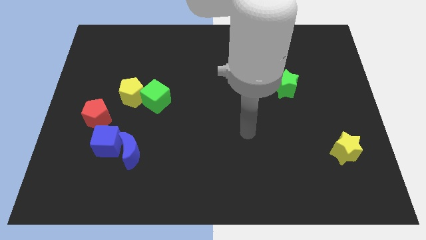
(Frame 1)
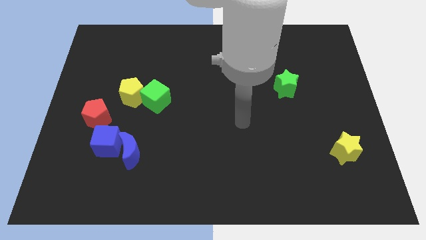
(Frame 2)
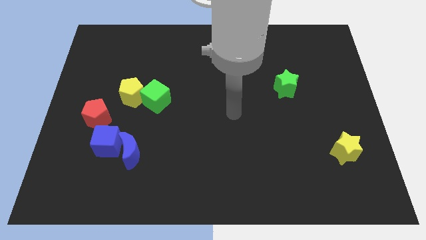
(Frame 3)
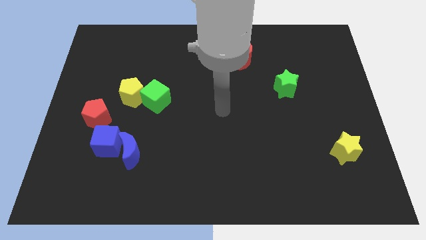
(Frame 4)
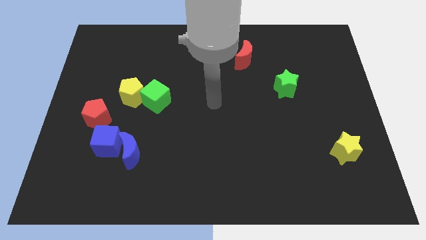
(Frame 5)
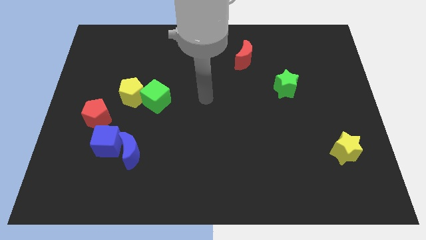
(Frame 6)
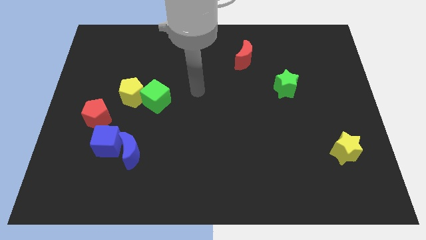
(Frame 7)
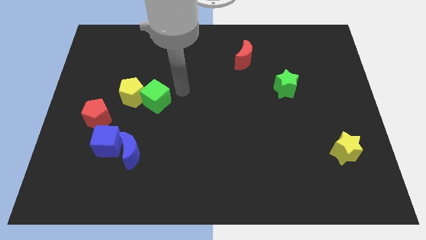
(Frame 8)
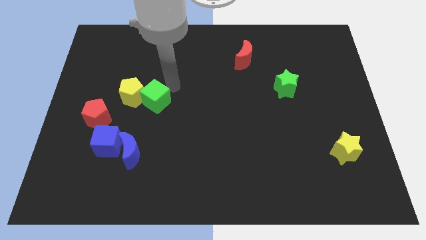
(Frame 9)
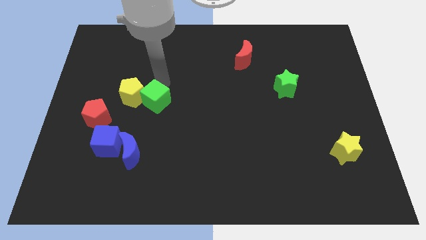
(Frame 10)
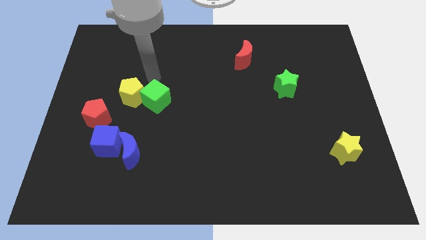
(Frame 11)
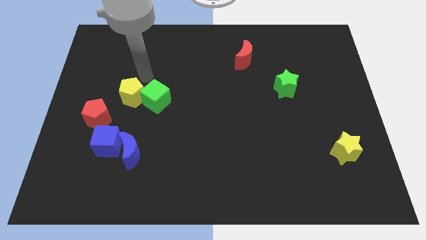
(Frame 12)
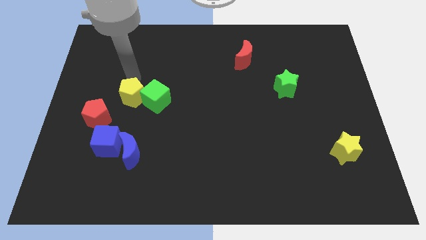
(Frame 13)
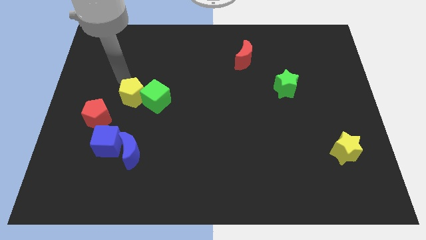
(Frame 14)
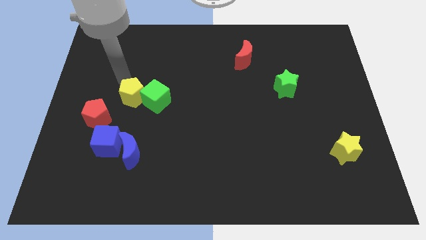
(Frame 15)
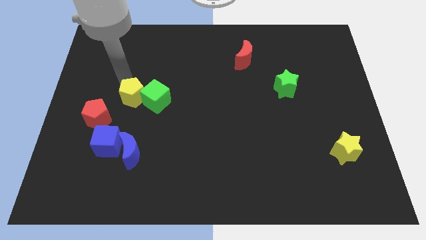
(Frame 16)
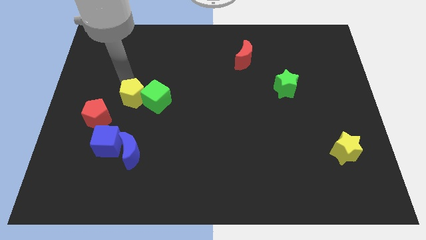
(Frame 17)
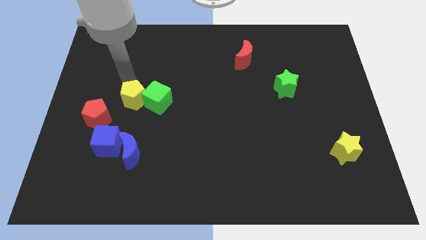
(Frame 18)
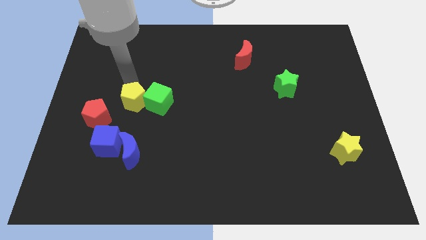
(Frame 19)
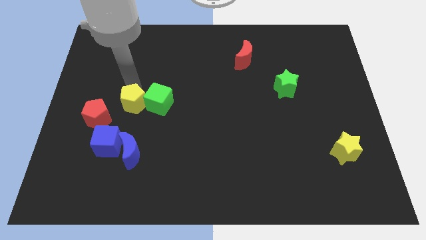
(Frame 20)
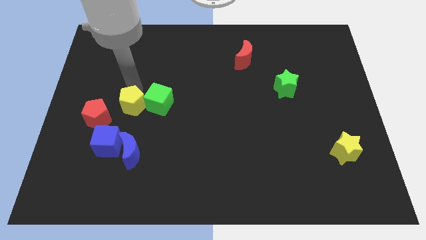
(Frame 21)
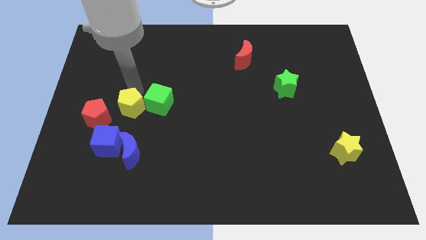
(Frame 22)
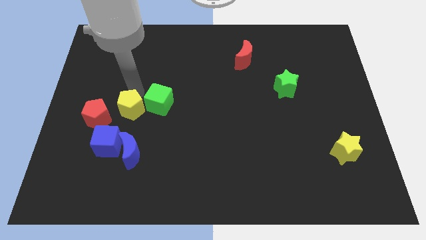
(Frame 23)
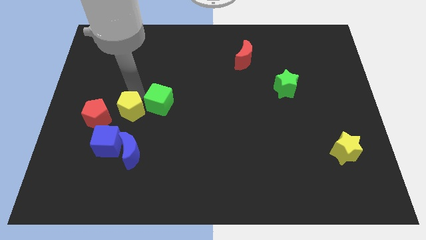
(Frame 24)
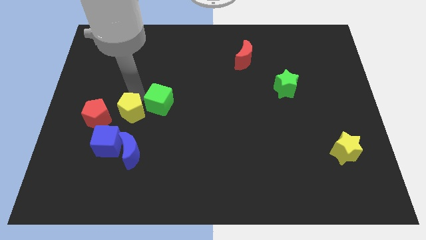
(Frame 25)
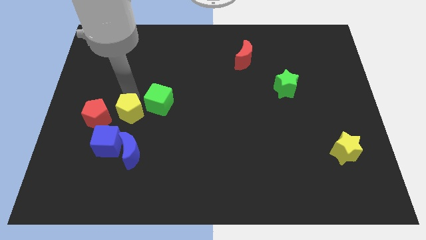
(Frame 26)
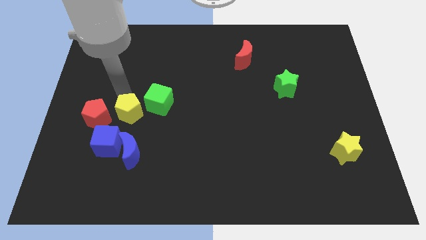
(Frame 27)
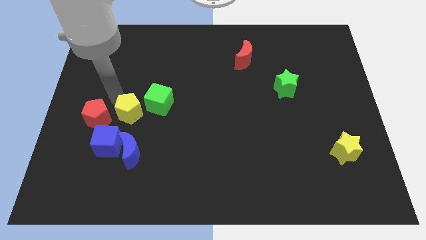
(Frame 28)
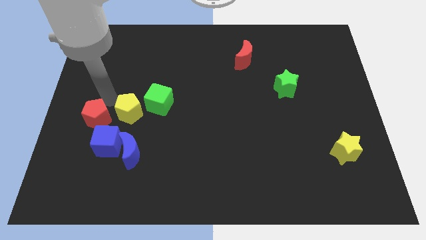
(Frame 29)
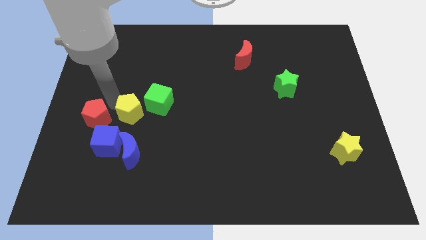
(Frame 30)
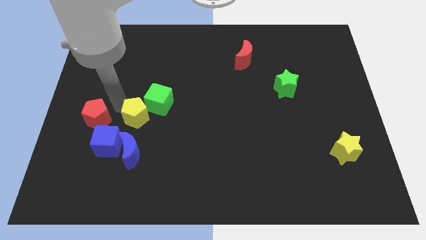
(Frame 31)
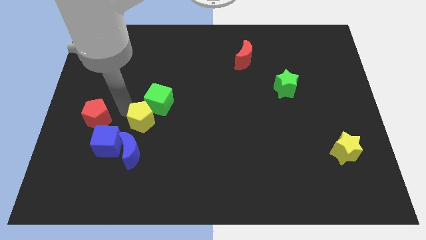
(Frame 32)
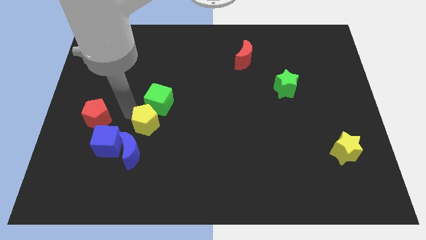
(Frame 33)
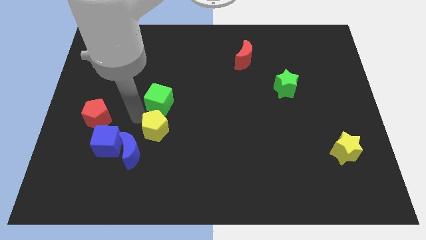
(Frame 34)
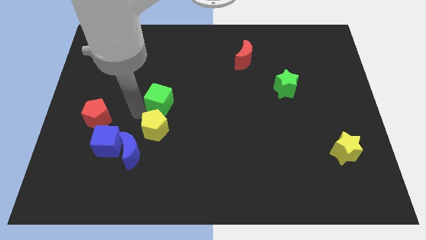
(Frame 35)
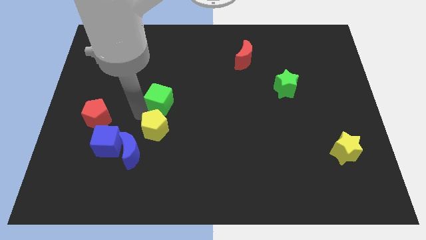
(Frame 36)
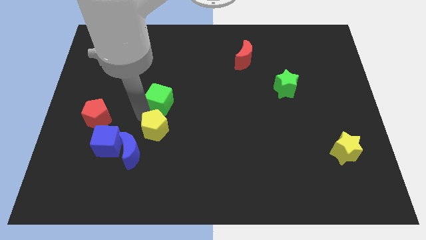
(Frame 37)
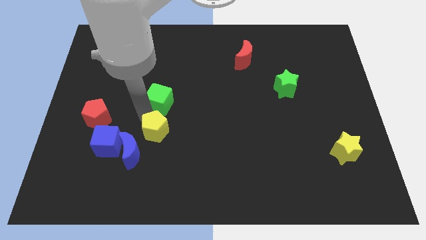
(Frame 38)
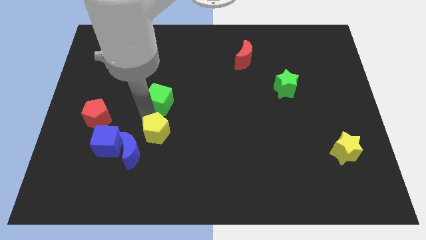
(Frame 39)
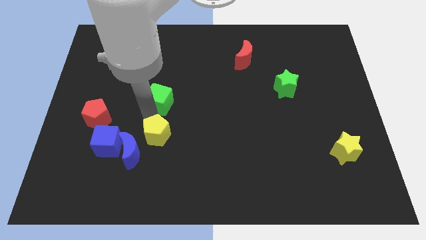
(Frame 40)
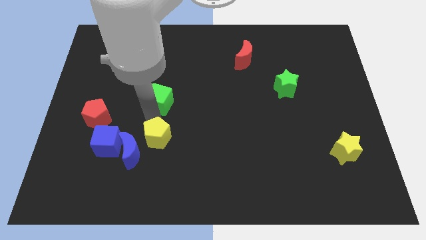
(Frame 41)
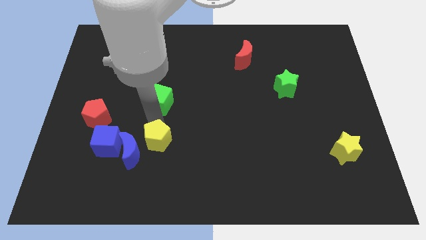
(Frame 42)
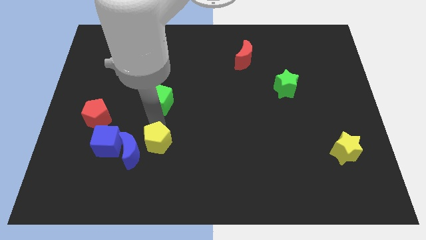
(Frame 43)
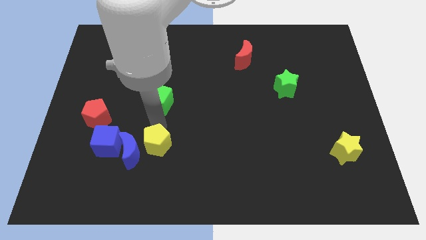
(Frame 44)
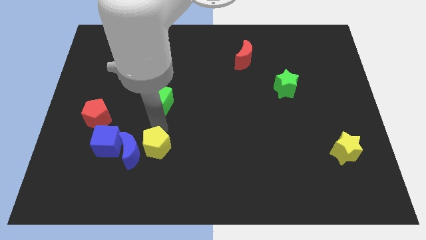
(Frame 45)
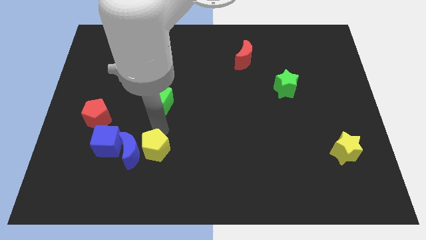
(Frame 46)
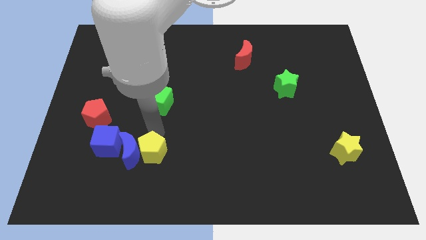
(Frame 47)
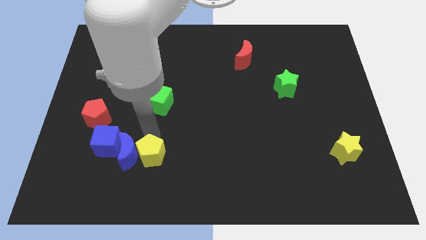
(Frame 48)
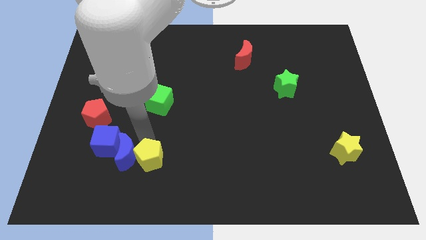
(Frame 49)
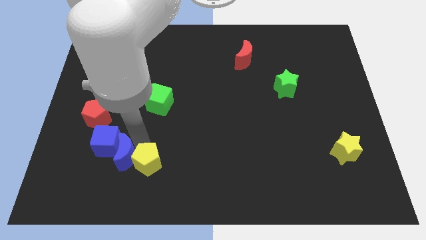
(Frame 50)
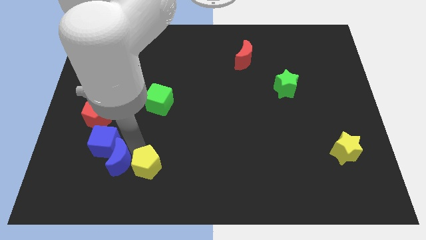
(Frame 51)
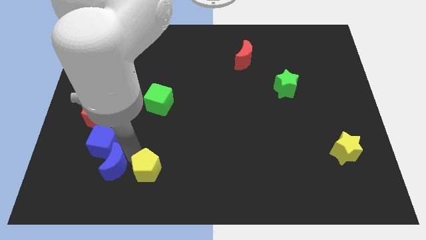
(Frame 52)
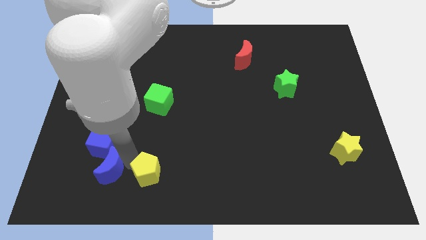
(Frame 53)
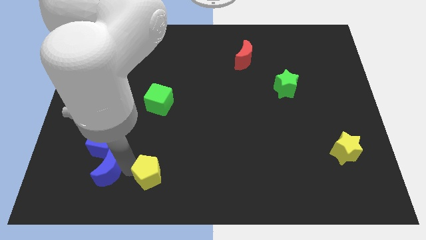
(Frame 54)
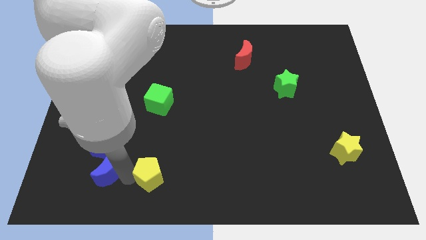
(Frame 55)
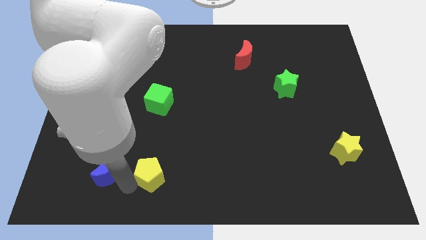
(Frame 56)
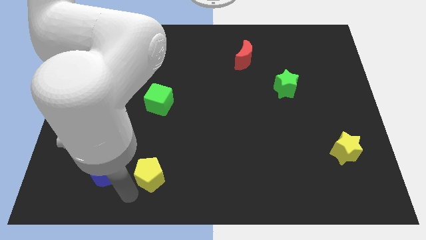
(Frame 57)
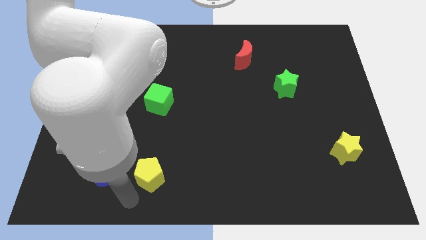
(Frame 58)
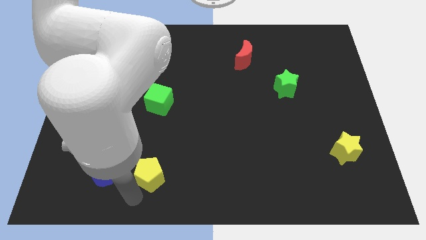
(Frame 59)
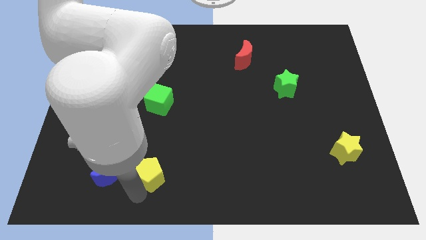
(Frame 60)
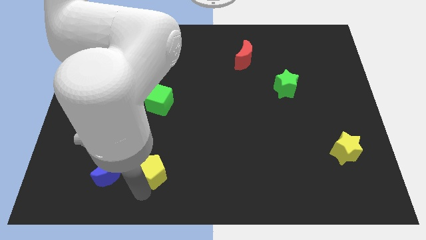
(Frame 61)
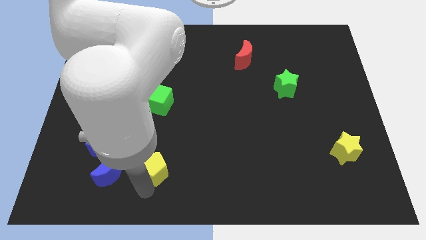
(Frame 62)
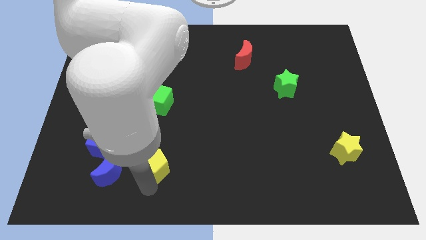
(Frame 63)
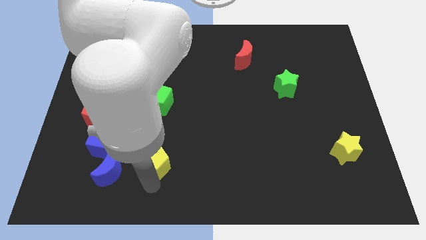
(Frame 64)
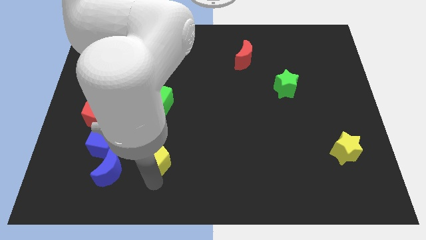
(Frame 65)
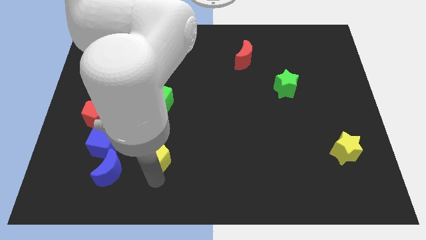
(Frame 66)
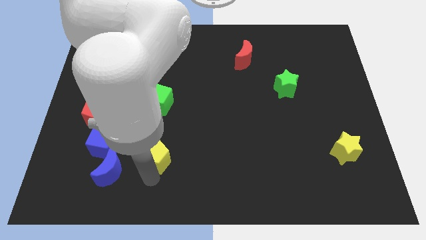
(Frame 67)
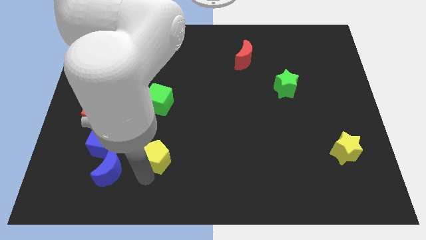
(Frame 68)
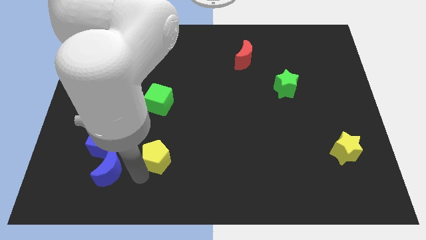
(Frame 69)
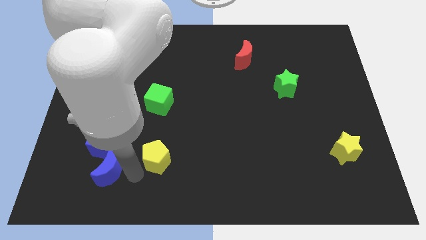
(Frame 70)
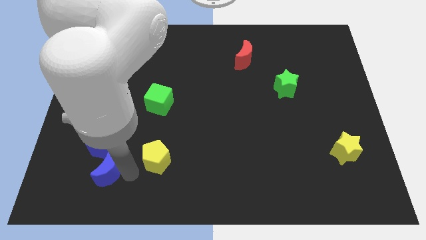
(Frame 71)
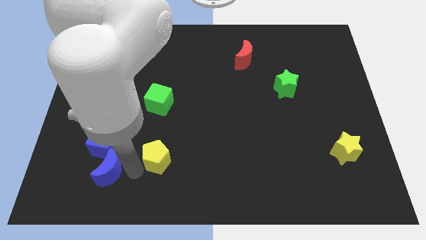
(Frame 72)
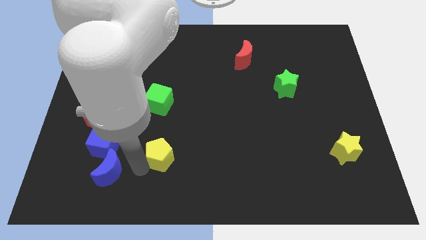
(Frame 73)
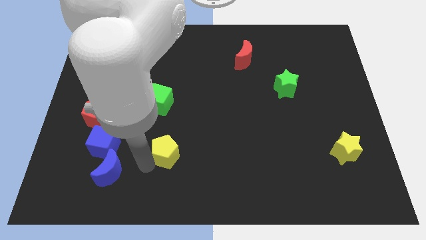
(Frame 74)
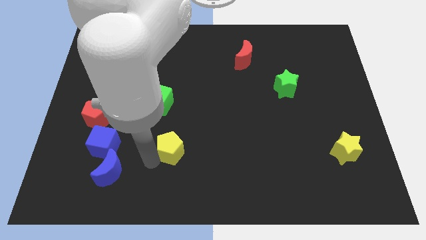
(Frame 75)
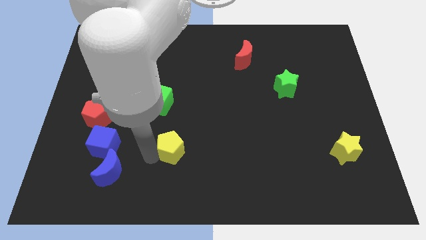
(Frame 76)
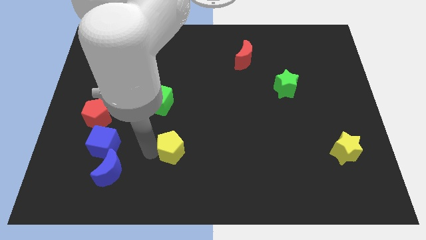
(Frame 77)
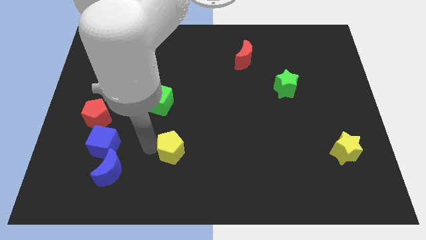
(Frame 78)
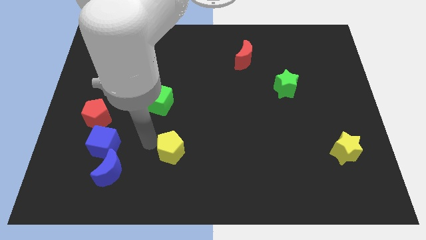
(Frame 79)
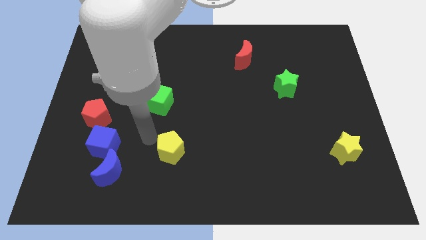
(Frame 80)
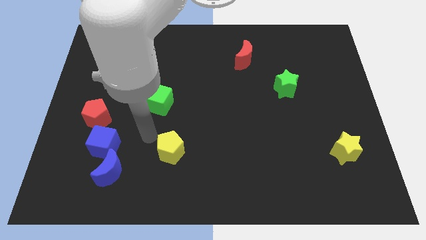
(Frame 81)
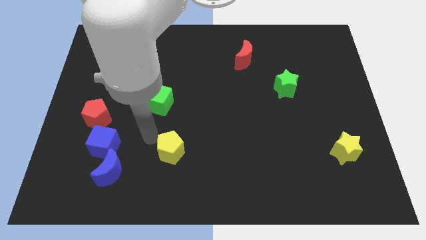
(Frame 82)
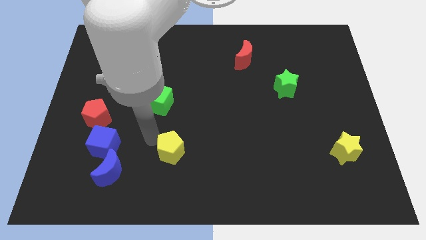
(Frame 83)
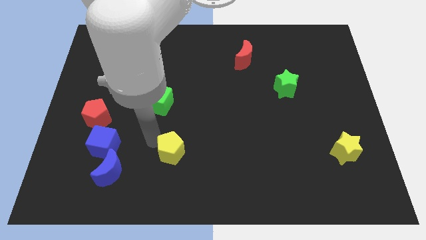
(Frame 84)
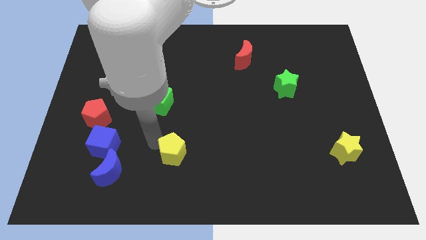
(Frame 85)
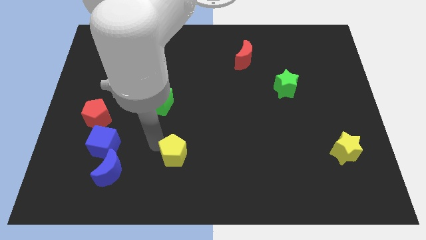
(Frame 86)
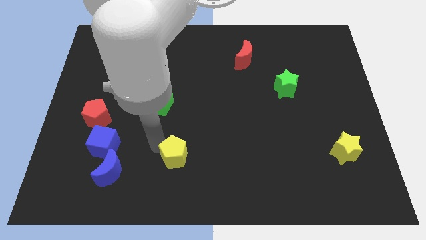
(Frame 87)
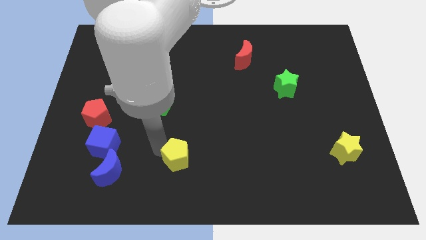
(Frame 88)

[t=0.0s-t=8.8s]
move the yellow pentagon down and then right
